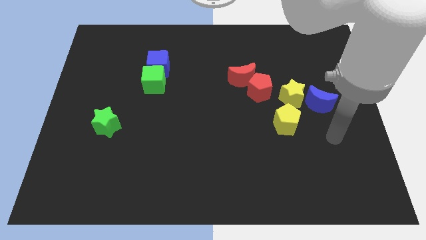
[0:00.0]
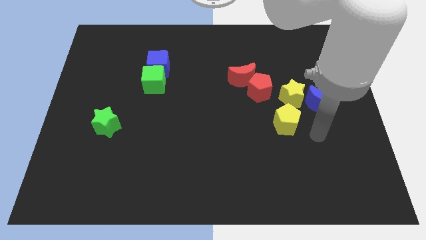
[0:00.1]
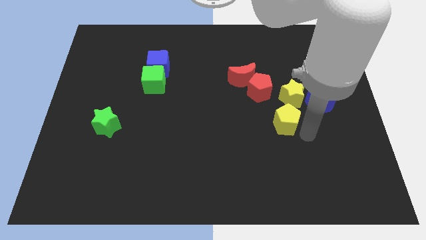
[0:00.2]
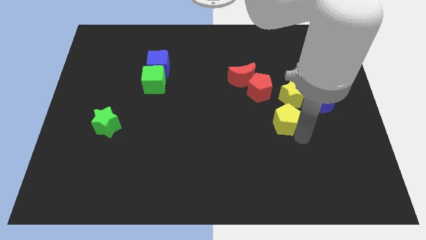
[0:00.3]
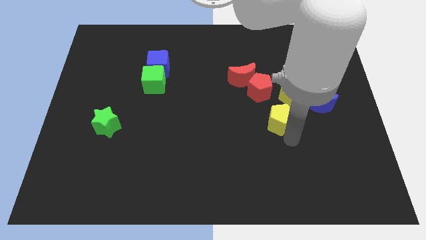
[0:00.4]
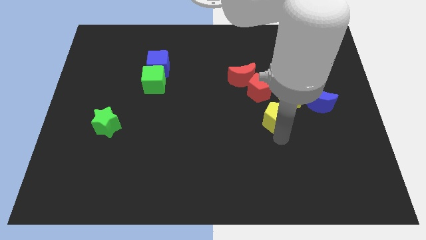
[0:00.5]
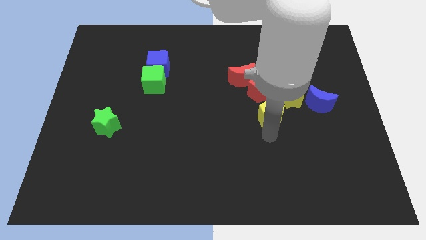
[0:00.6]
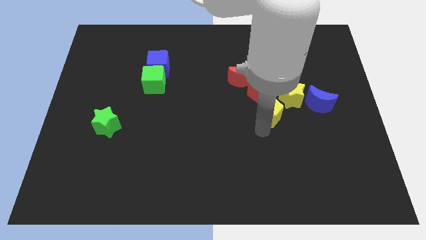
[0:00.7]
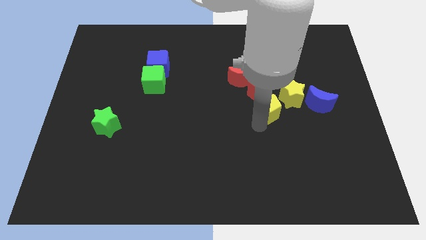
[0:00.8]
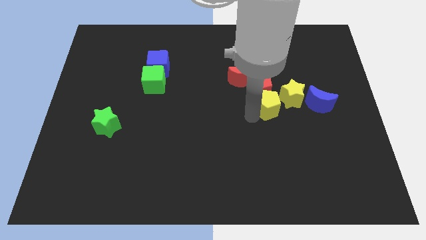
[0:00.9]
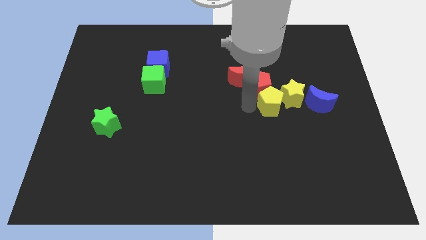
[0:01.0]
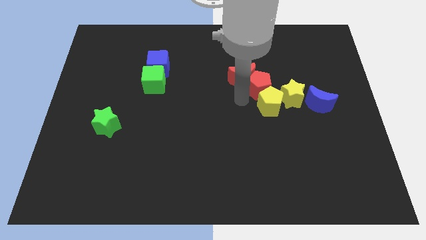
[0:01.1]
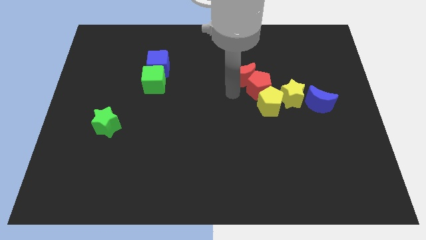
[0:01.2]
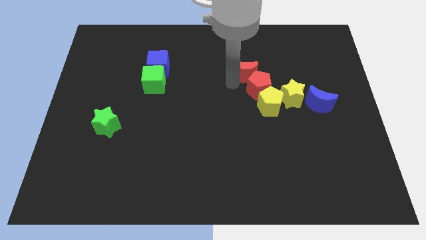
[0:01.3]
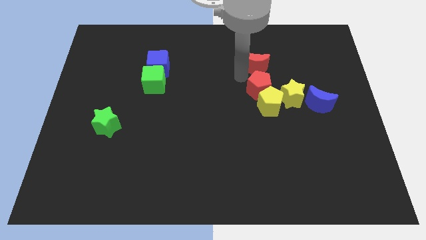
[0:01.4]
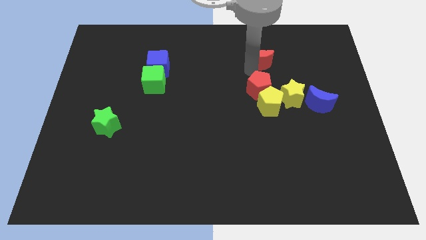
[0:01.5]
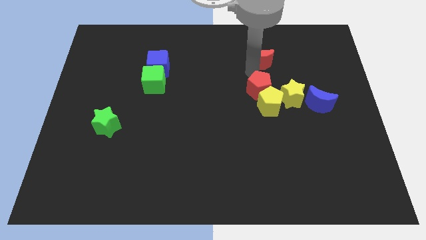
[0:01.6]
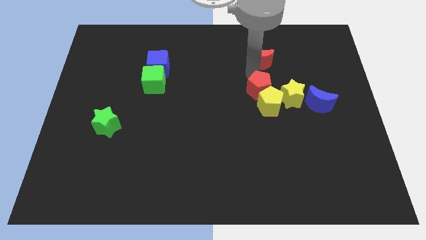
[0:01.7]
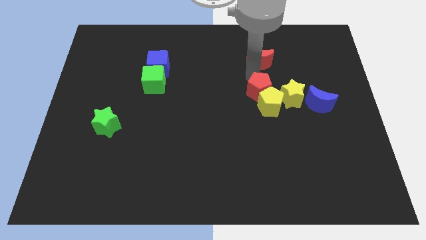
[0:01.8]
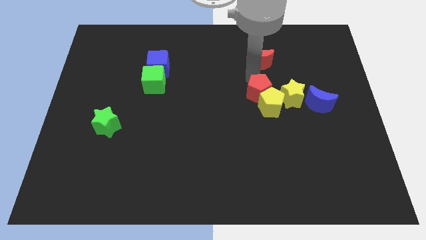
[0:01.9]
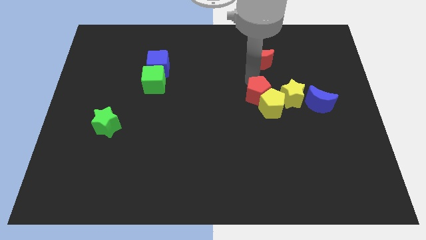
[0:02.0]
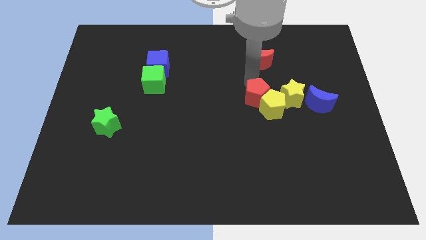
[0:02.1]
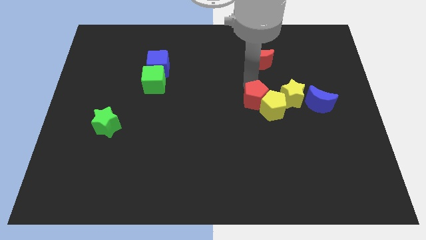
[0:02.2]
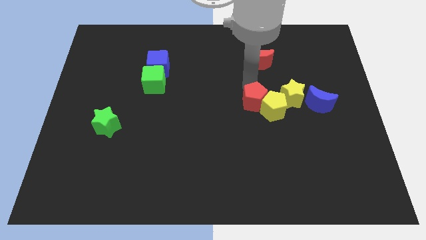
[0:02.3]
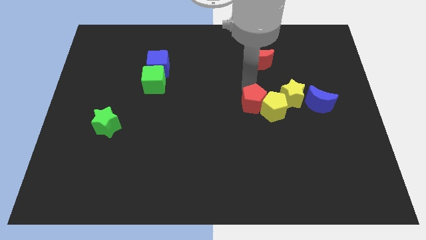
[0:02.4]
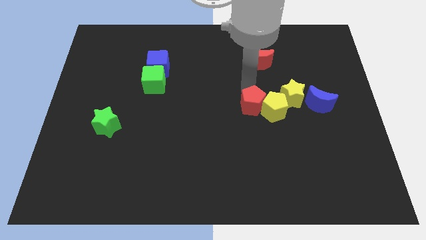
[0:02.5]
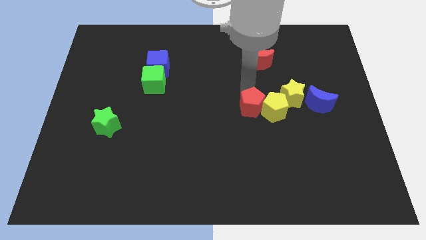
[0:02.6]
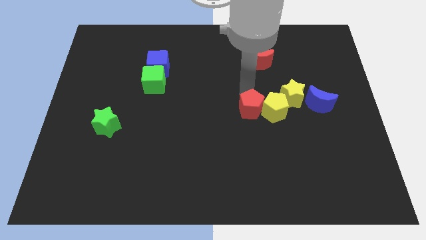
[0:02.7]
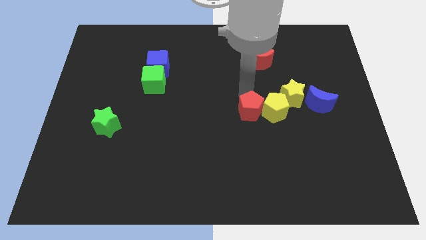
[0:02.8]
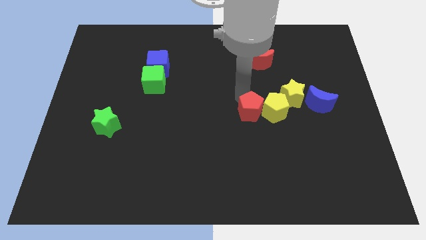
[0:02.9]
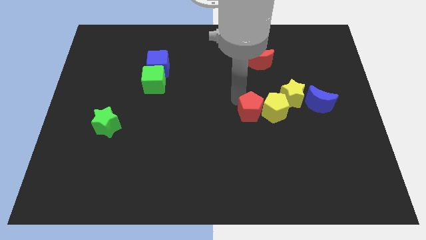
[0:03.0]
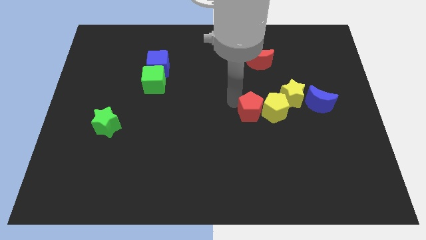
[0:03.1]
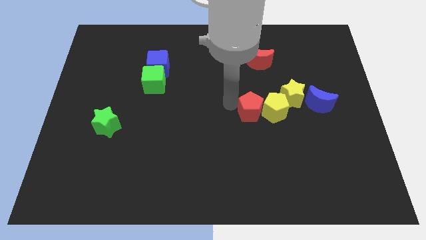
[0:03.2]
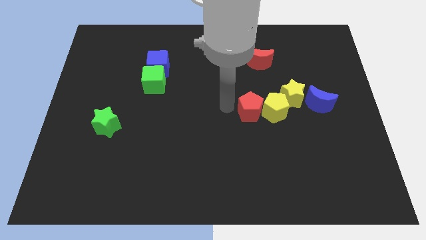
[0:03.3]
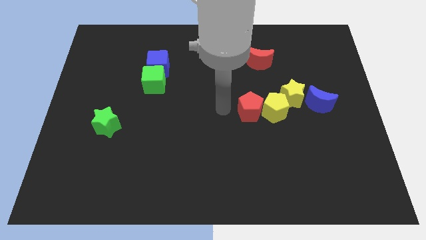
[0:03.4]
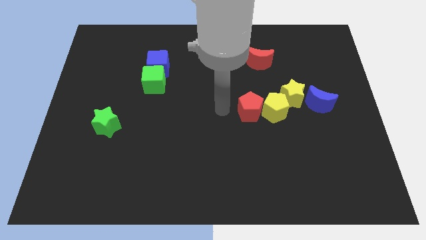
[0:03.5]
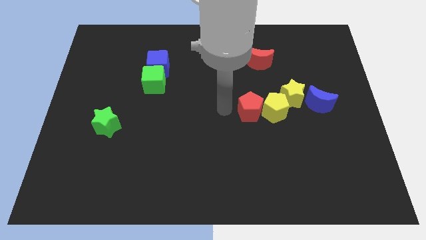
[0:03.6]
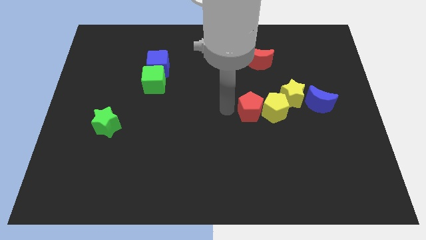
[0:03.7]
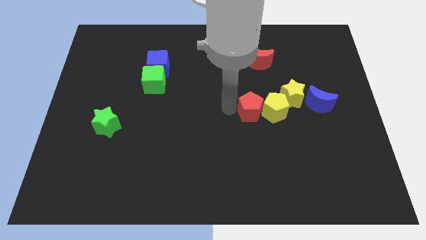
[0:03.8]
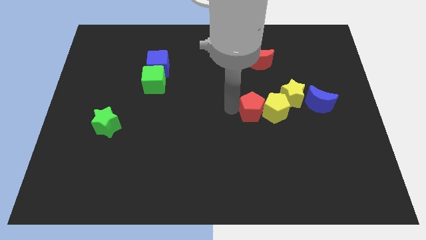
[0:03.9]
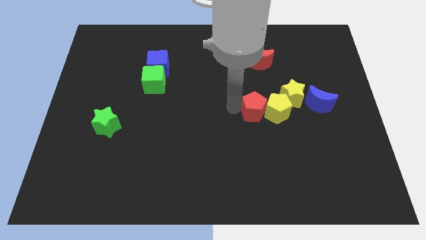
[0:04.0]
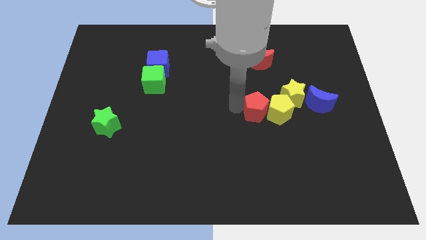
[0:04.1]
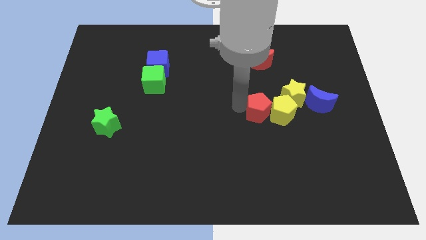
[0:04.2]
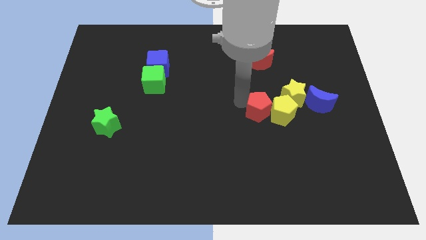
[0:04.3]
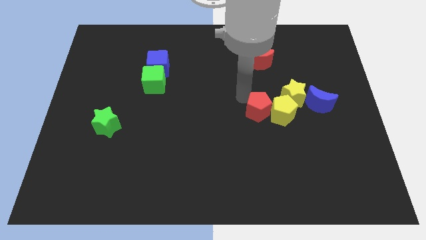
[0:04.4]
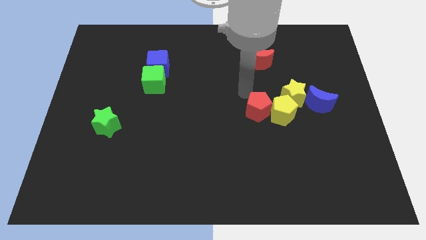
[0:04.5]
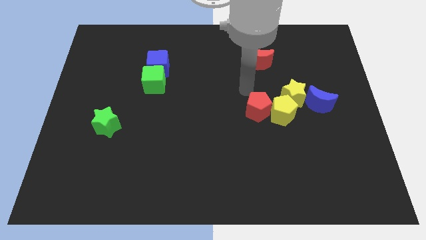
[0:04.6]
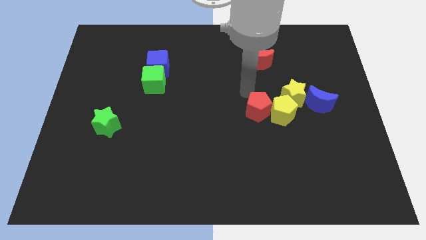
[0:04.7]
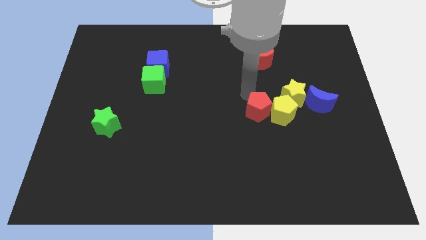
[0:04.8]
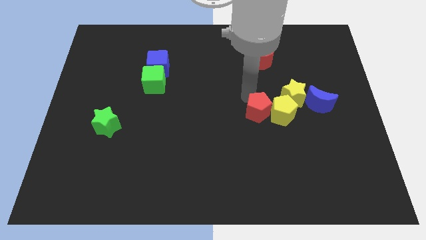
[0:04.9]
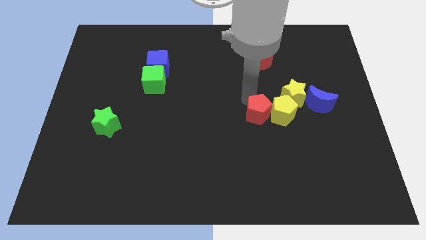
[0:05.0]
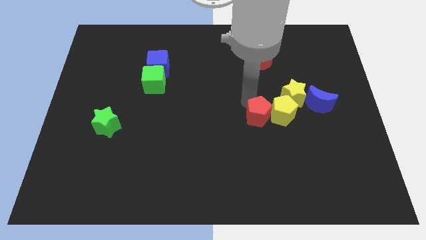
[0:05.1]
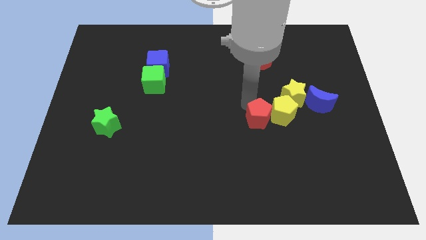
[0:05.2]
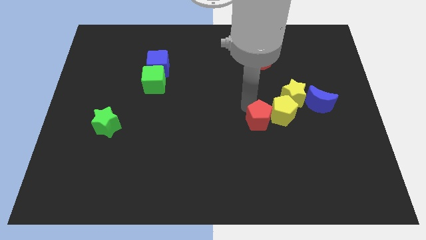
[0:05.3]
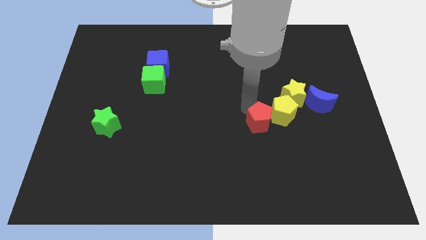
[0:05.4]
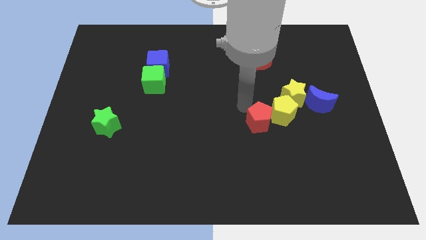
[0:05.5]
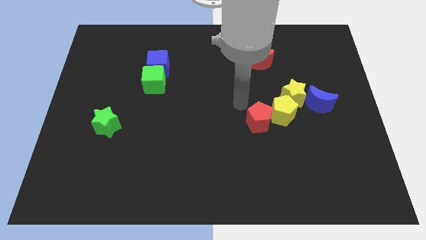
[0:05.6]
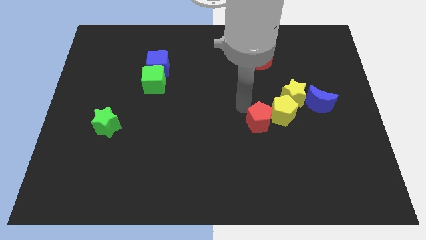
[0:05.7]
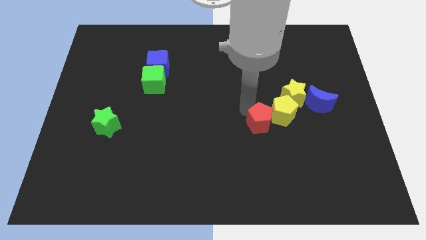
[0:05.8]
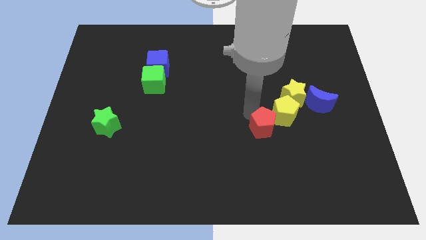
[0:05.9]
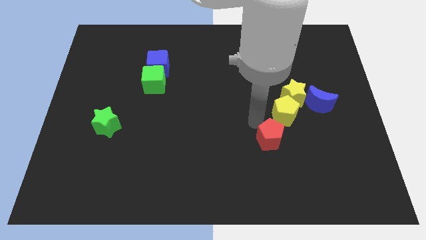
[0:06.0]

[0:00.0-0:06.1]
move the red pentagon diagonally down and to the right a bit

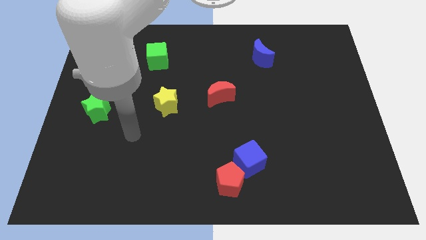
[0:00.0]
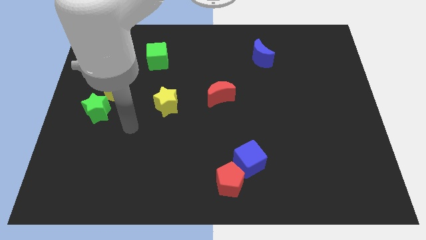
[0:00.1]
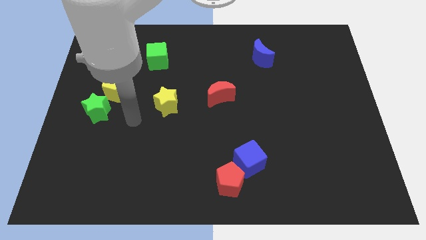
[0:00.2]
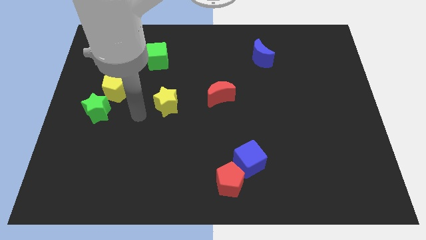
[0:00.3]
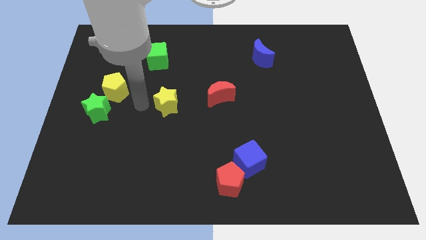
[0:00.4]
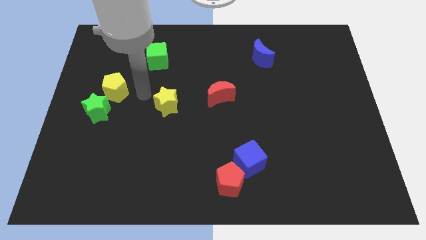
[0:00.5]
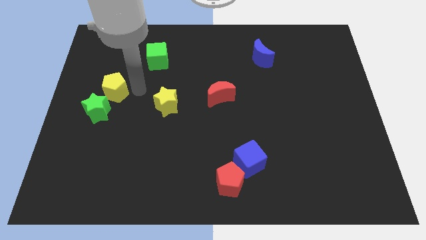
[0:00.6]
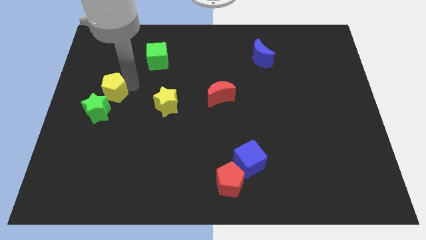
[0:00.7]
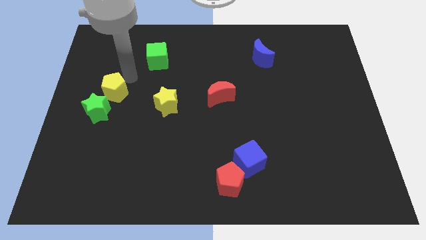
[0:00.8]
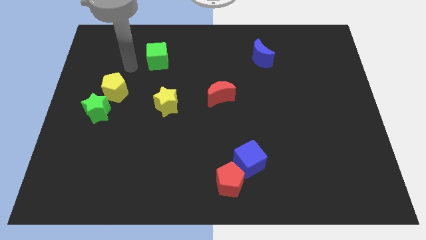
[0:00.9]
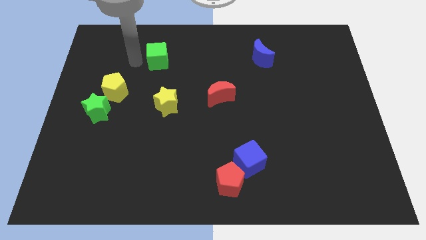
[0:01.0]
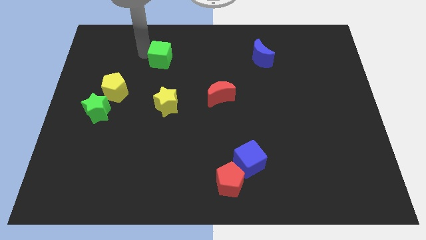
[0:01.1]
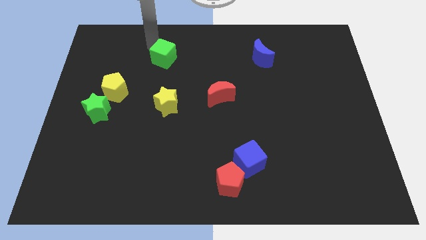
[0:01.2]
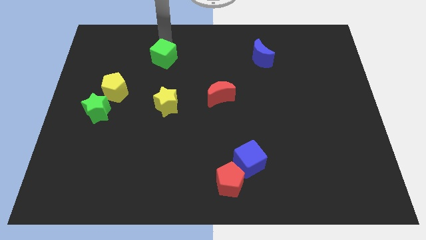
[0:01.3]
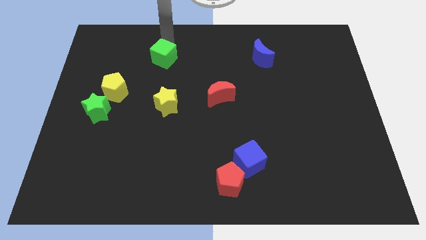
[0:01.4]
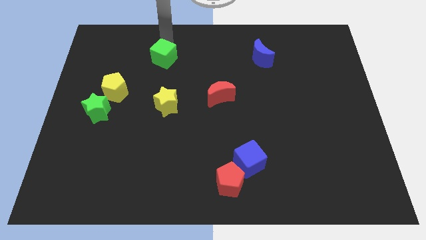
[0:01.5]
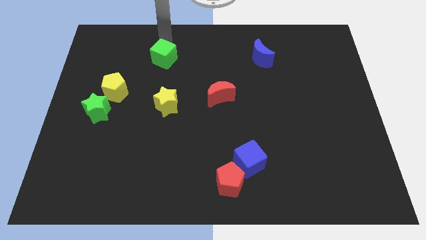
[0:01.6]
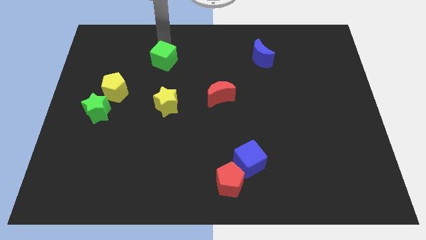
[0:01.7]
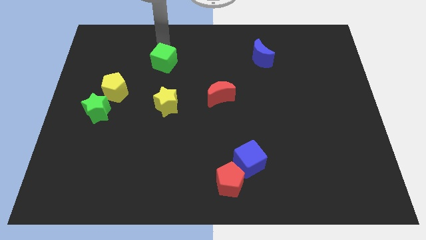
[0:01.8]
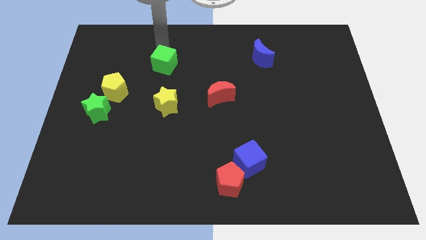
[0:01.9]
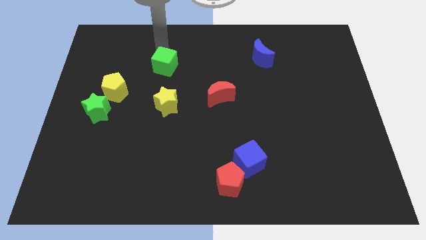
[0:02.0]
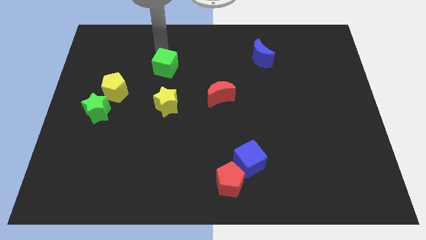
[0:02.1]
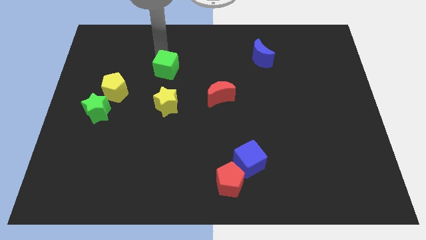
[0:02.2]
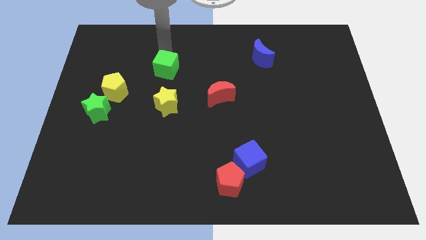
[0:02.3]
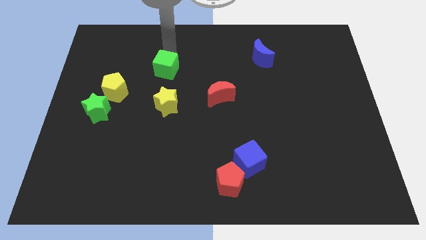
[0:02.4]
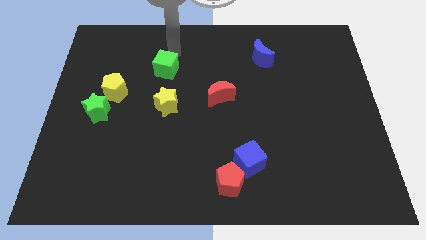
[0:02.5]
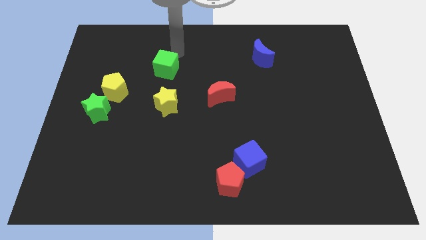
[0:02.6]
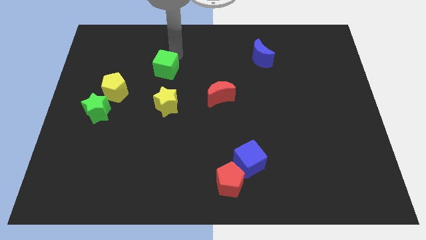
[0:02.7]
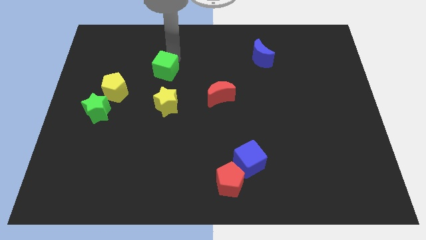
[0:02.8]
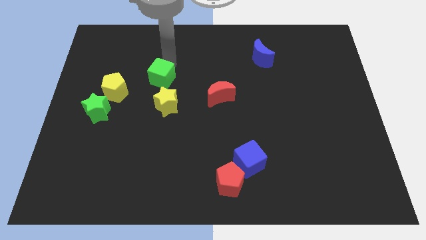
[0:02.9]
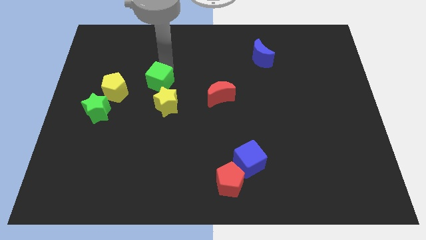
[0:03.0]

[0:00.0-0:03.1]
push the green cube a little down
